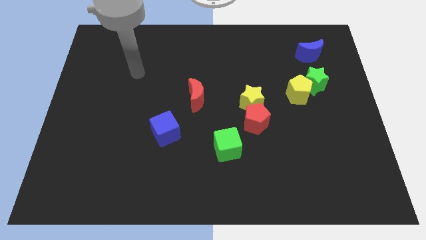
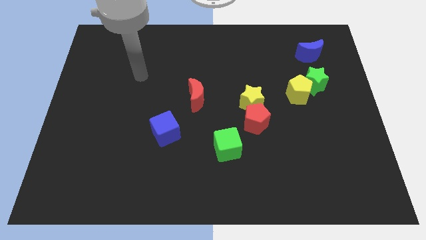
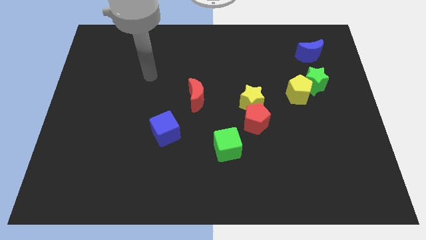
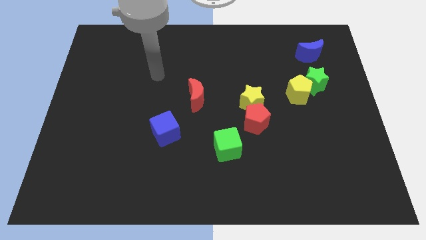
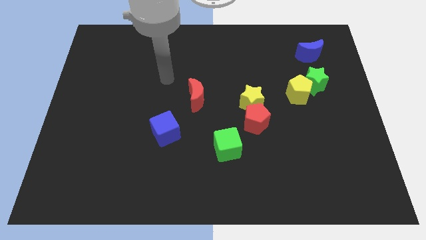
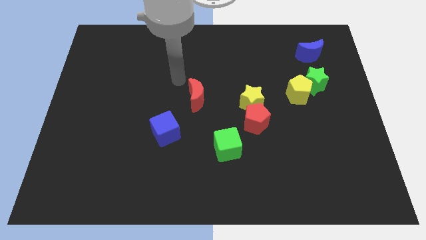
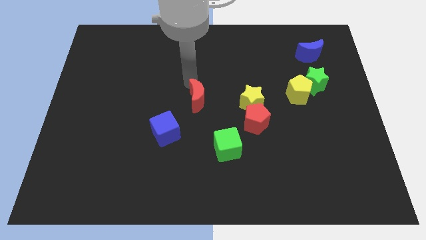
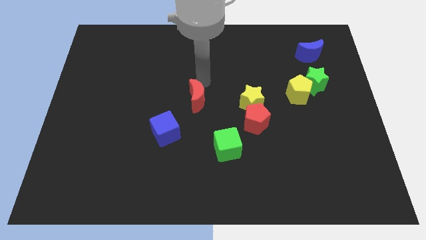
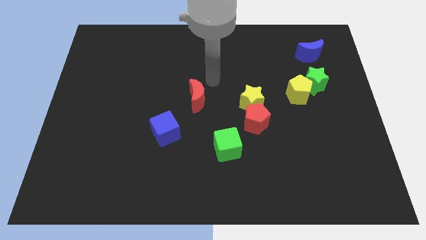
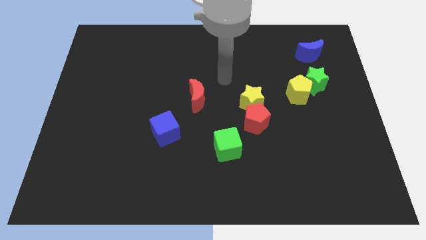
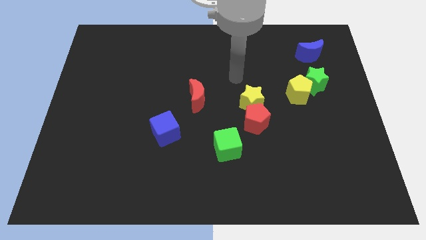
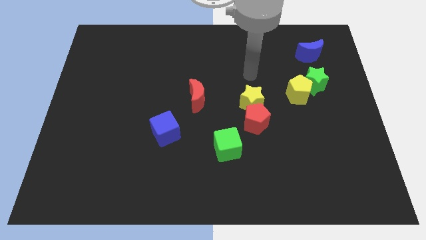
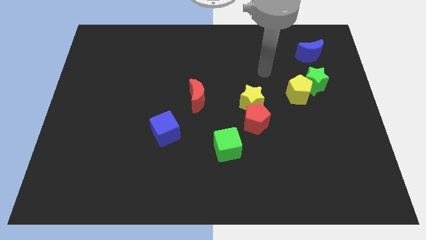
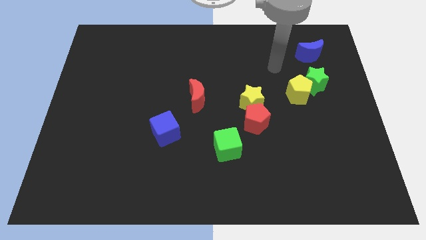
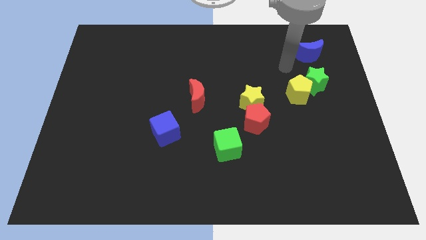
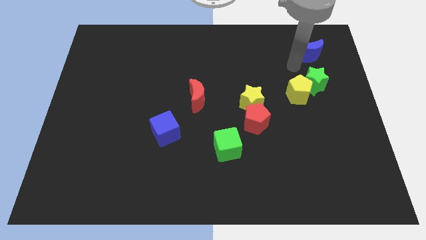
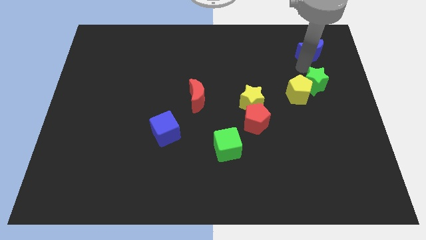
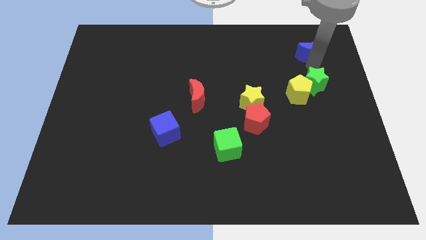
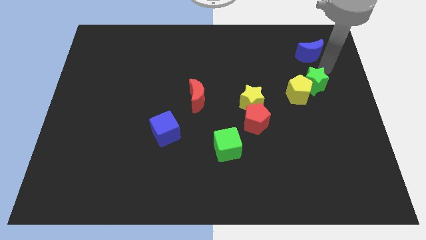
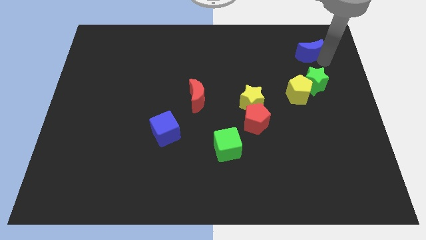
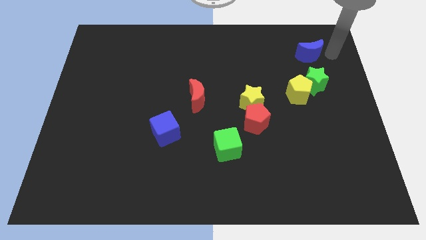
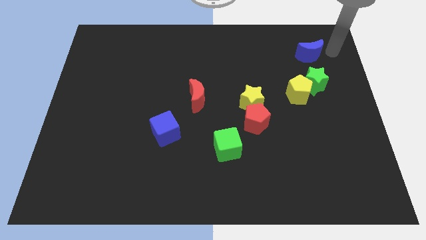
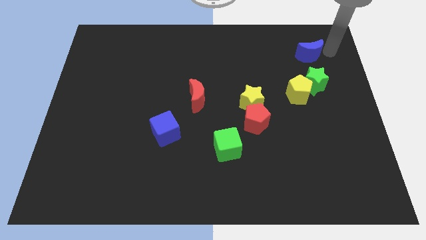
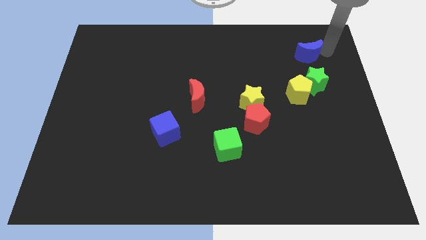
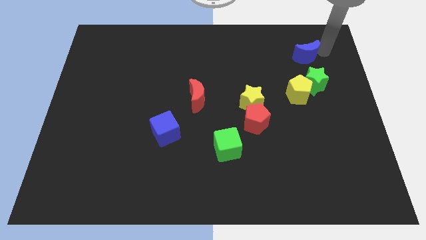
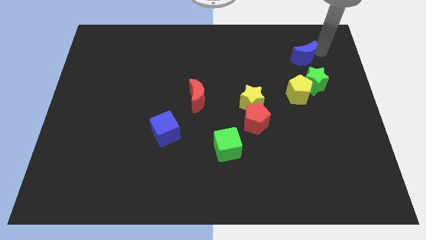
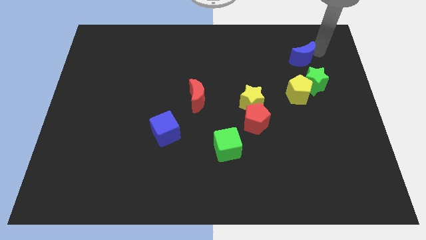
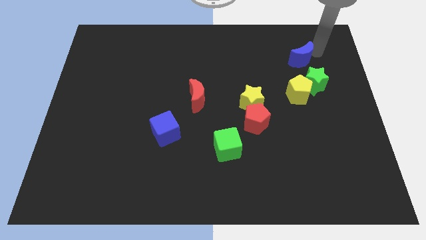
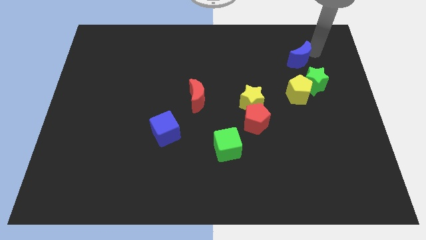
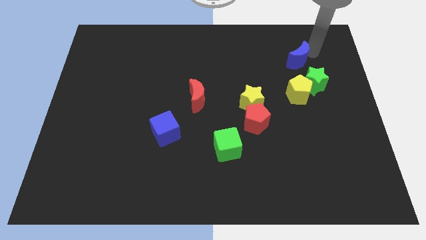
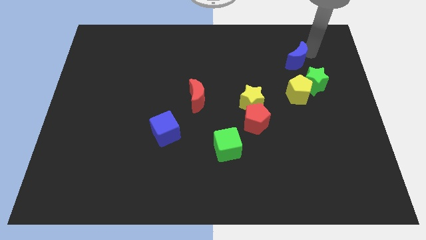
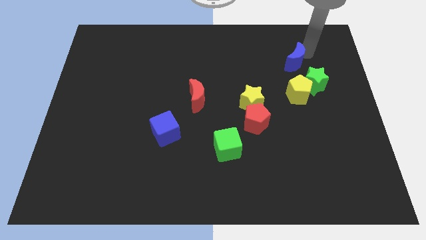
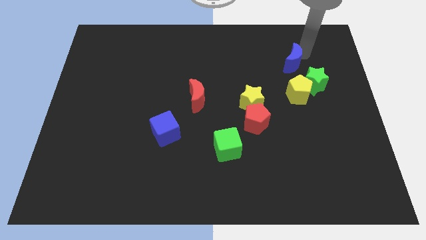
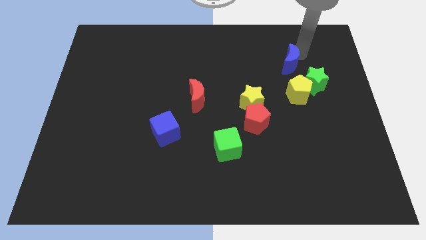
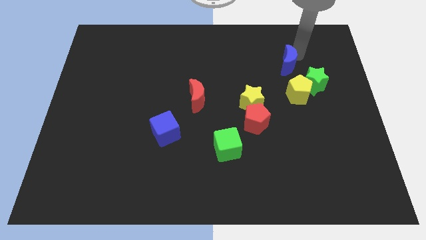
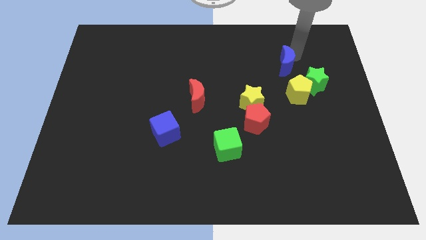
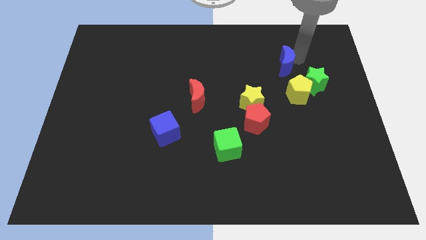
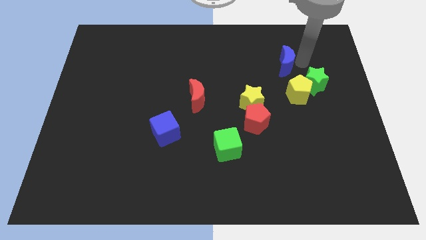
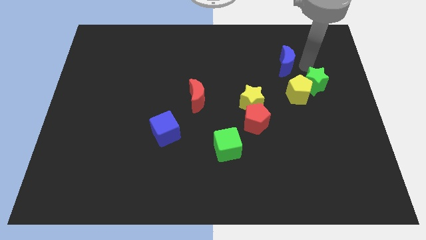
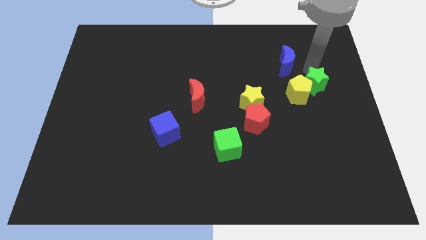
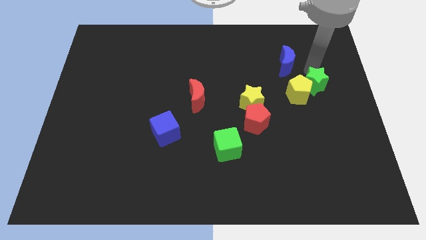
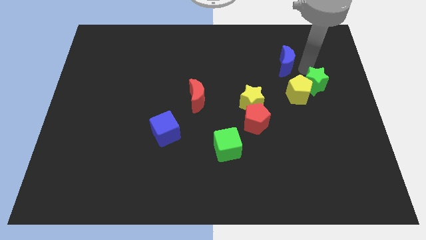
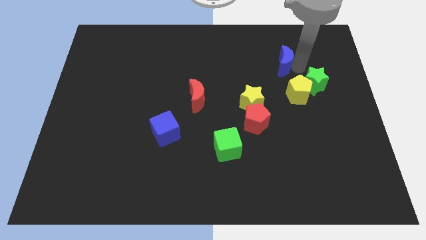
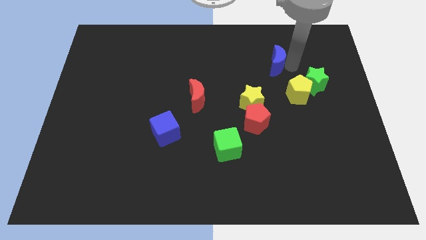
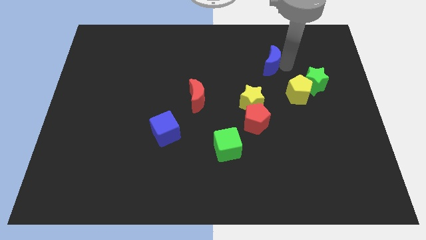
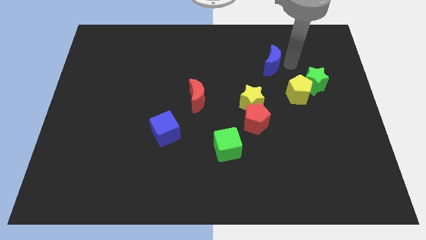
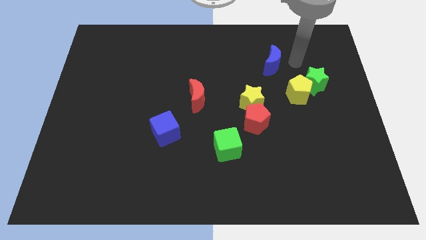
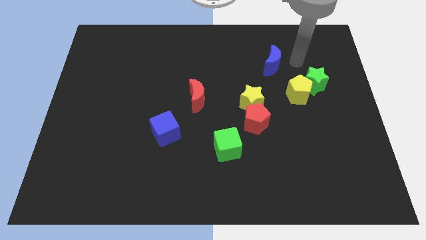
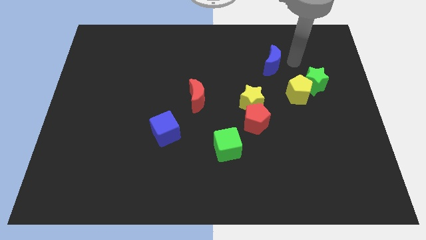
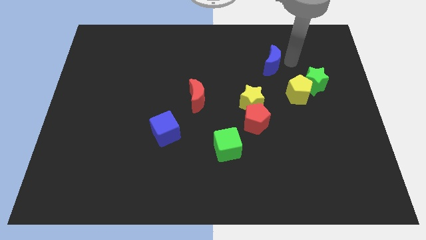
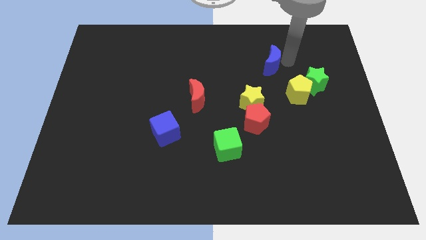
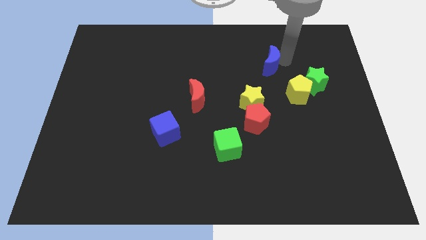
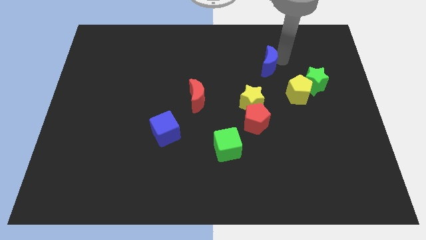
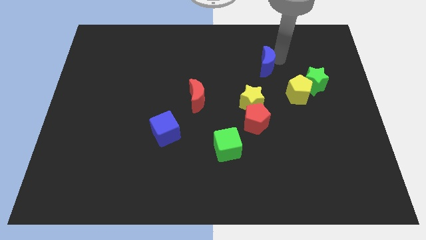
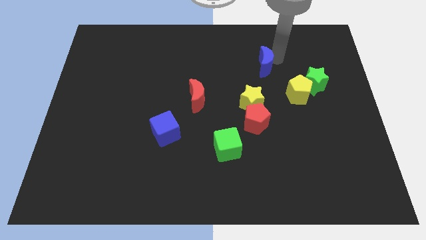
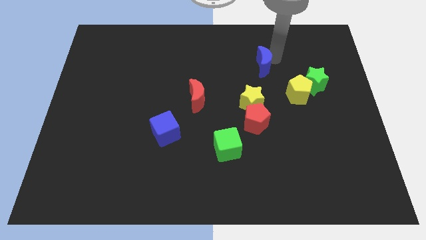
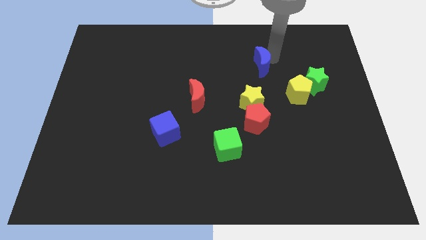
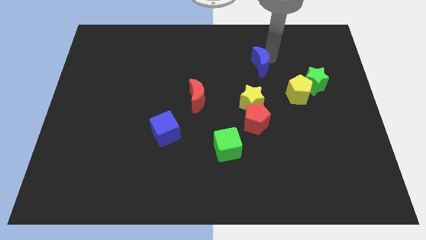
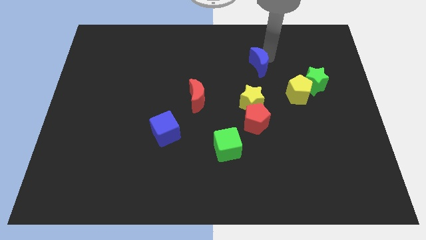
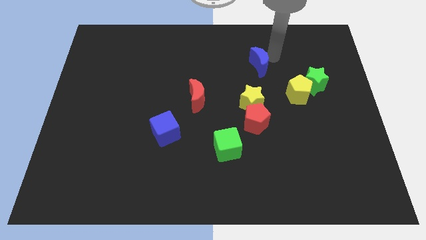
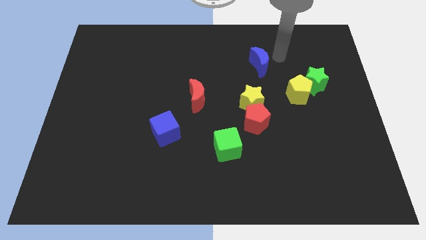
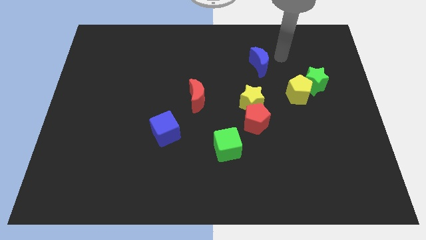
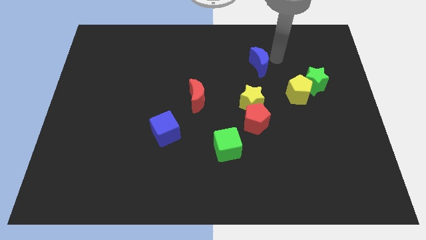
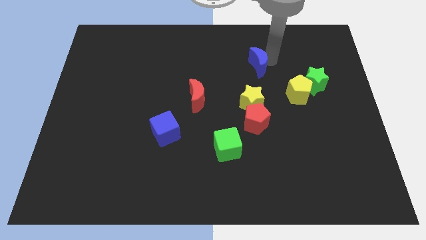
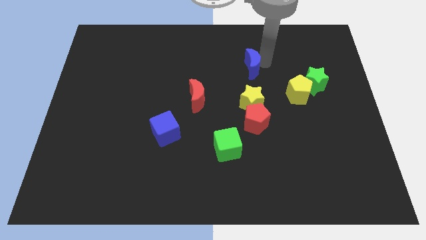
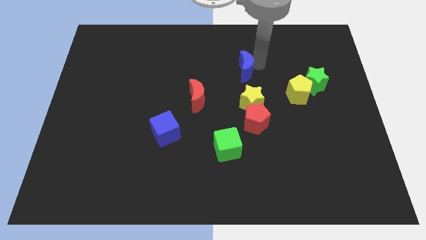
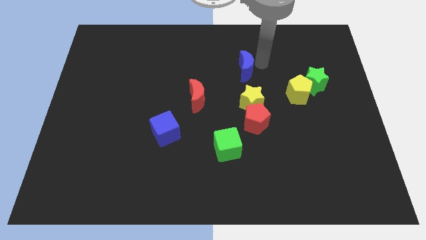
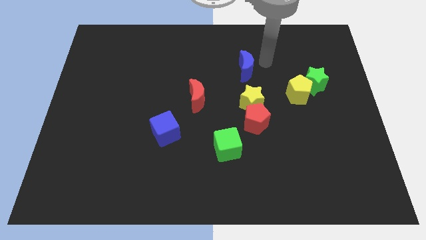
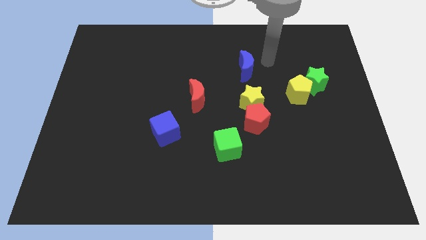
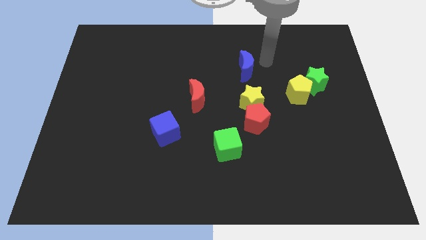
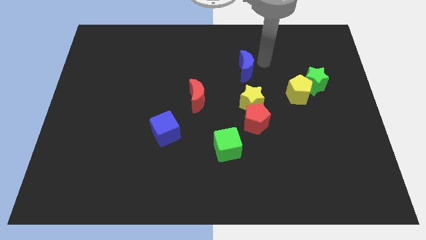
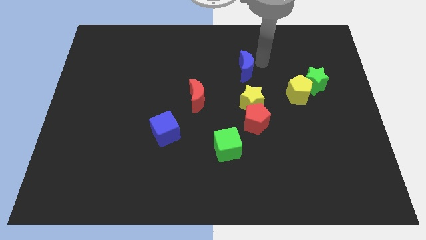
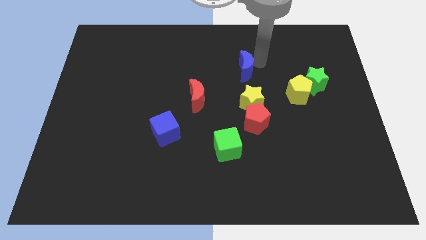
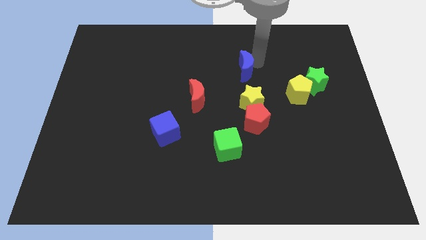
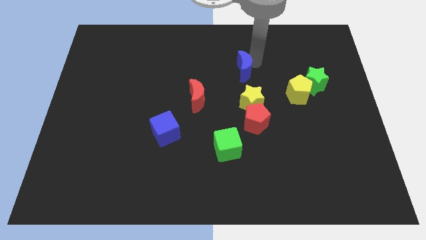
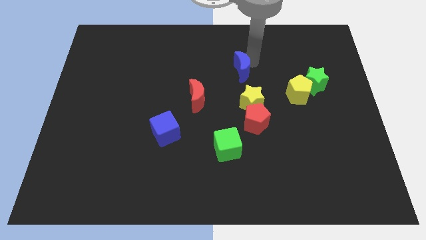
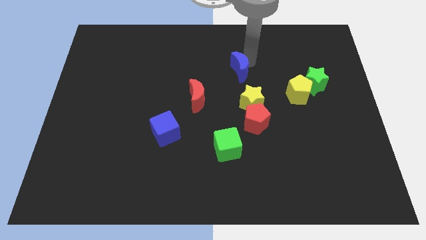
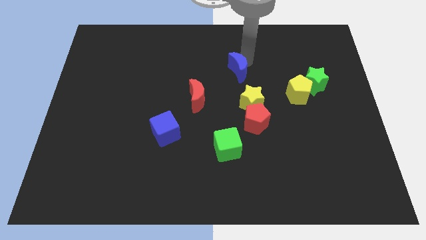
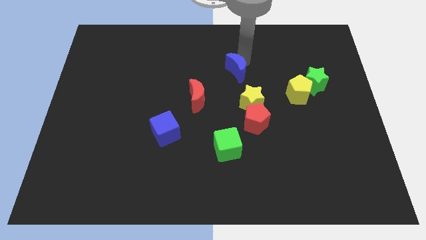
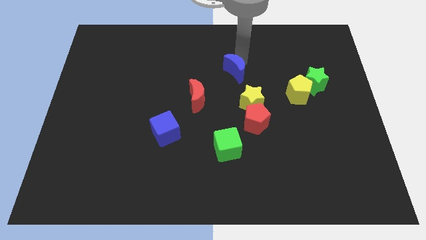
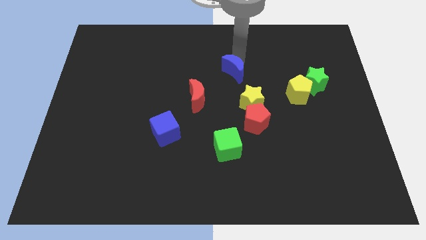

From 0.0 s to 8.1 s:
slide the blue moon to the top right of the red moon

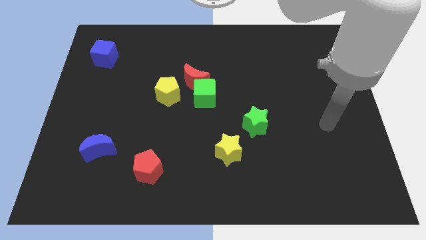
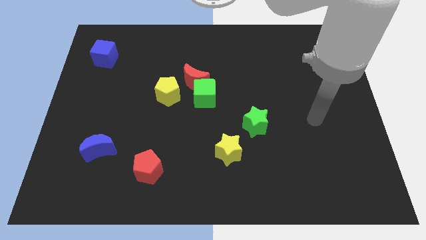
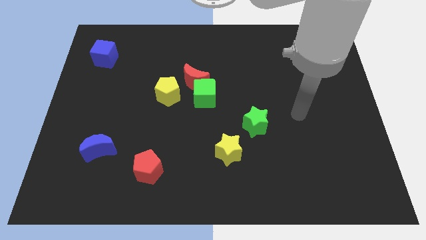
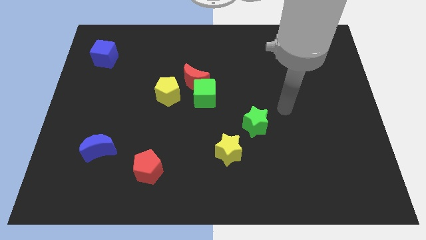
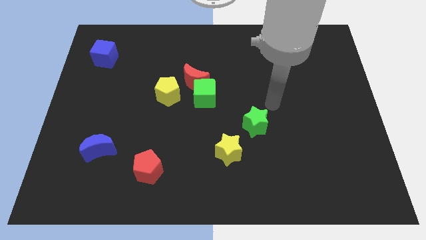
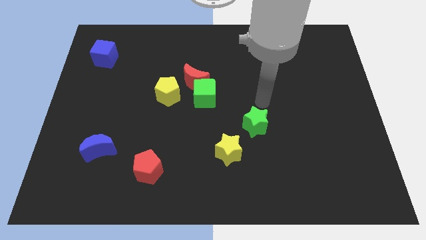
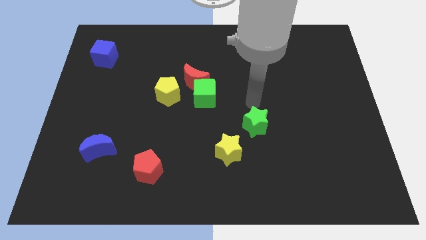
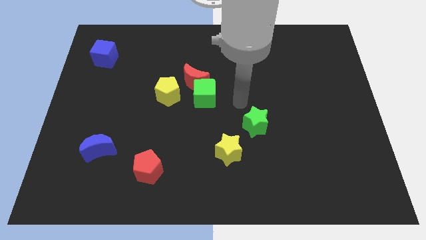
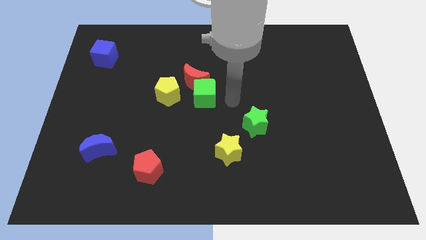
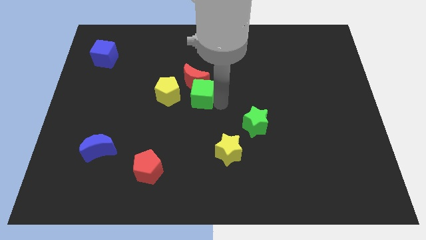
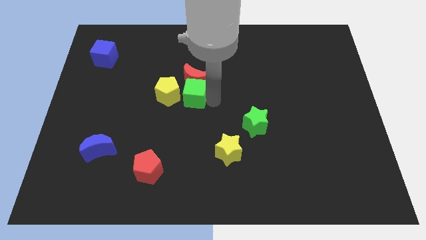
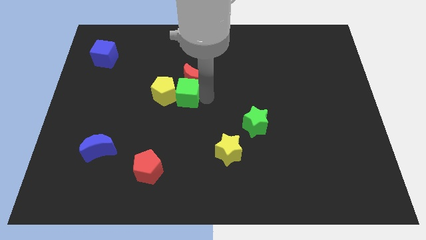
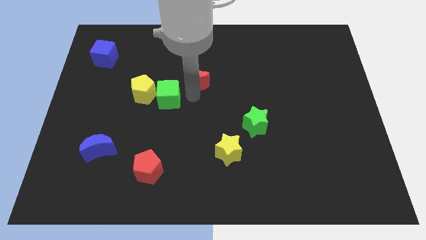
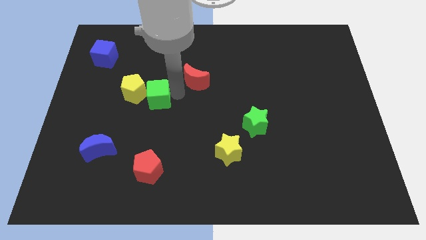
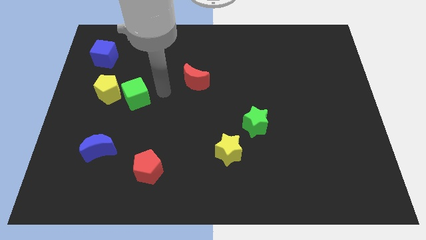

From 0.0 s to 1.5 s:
put the yellow pentagon to the bottom of the blue cube
